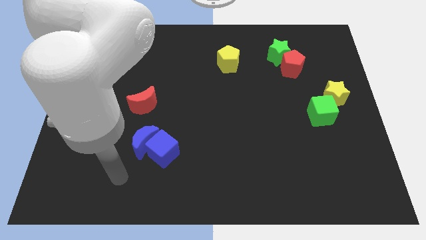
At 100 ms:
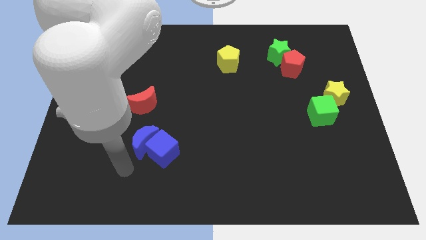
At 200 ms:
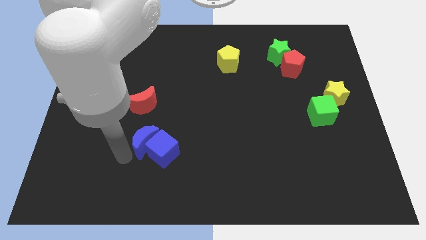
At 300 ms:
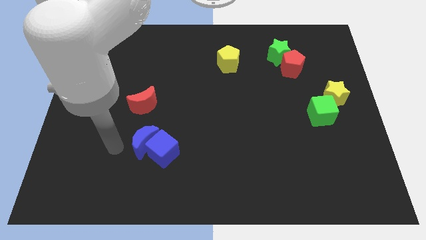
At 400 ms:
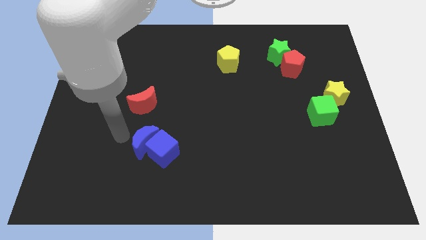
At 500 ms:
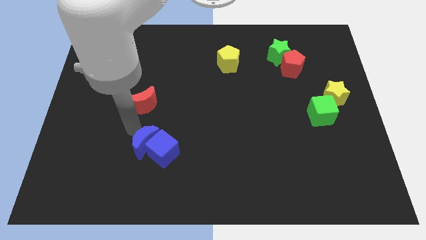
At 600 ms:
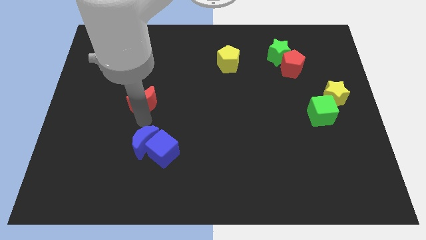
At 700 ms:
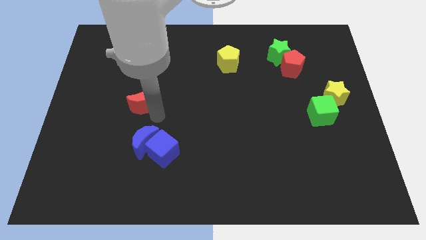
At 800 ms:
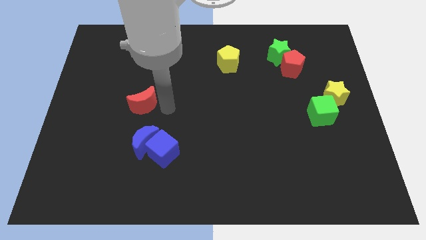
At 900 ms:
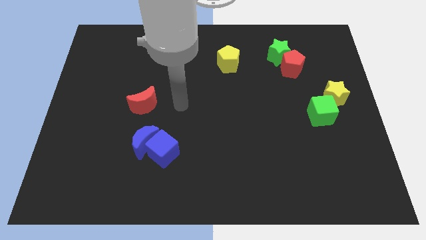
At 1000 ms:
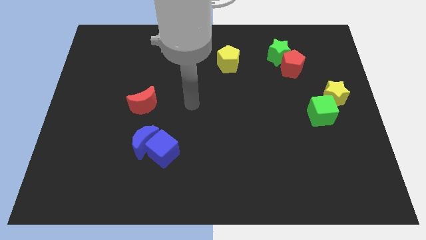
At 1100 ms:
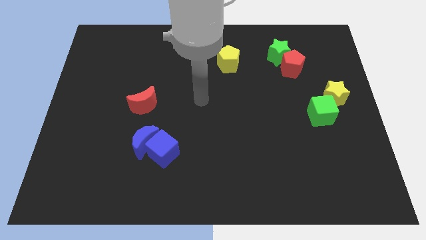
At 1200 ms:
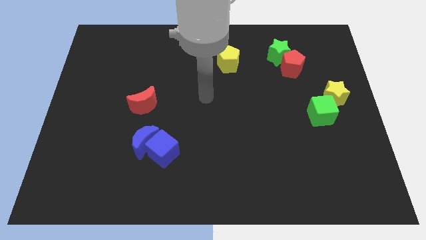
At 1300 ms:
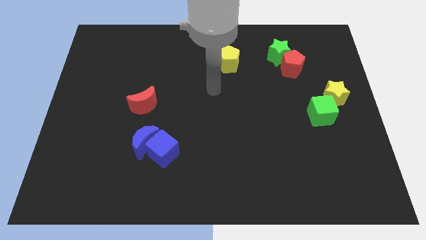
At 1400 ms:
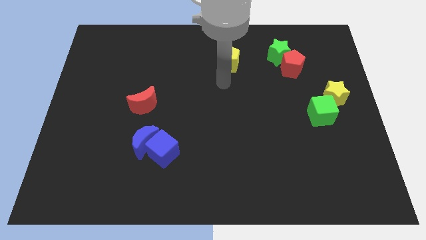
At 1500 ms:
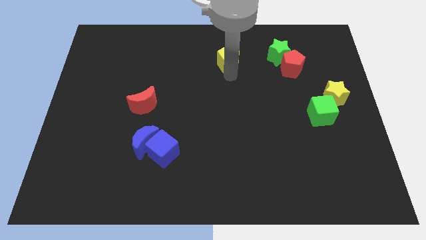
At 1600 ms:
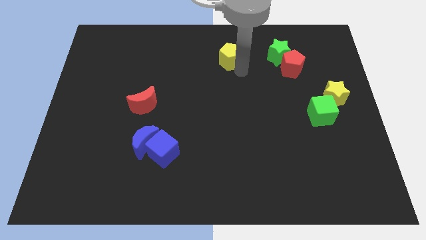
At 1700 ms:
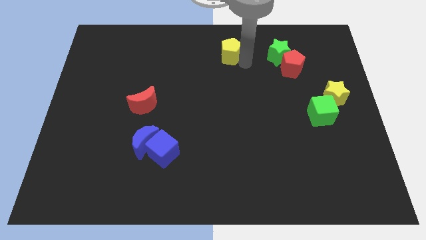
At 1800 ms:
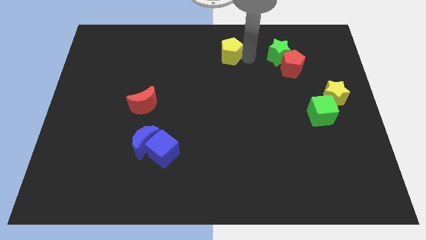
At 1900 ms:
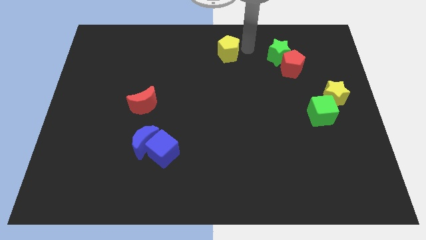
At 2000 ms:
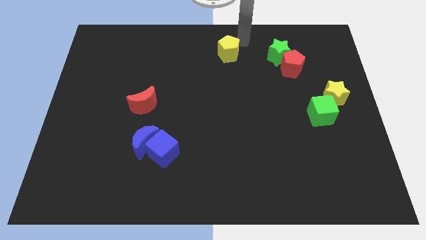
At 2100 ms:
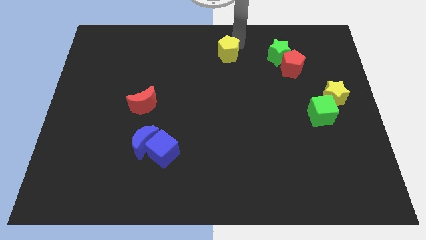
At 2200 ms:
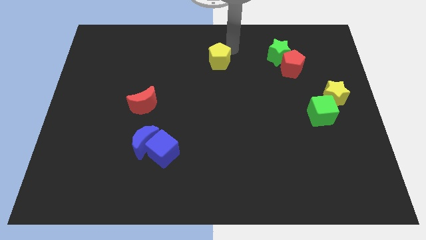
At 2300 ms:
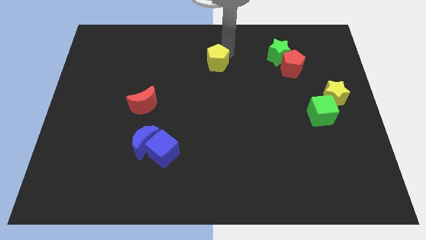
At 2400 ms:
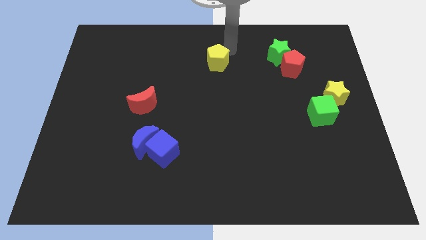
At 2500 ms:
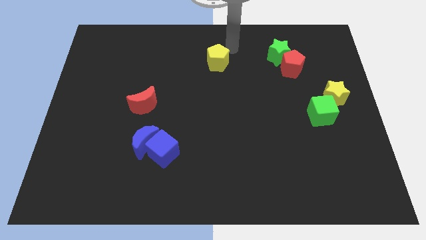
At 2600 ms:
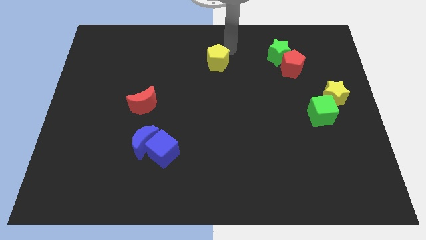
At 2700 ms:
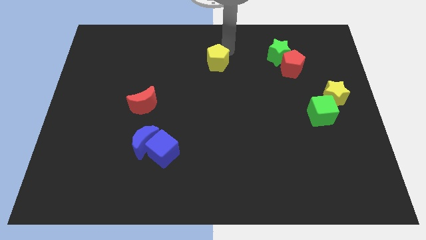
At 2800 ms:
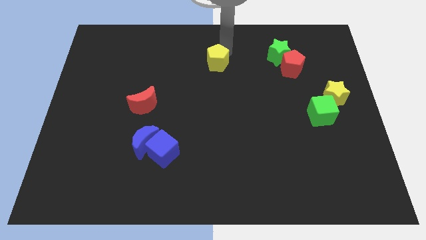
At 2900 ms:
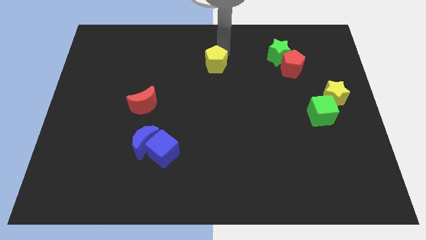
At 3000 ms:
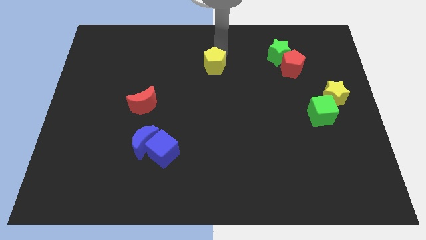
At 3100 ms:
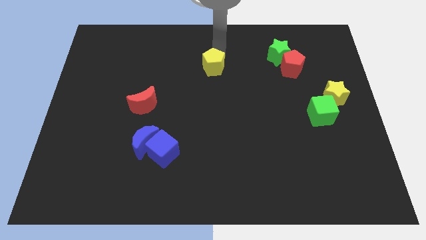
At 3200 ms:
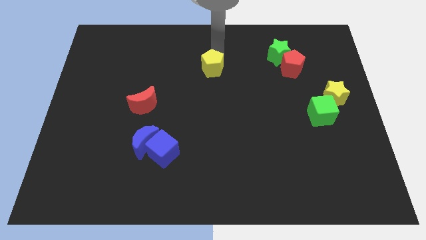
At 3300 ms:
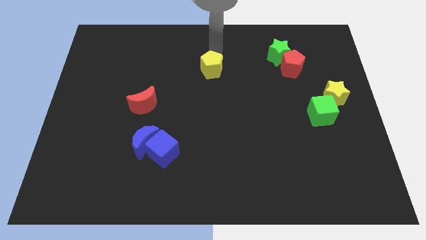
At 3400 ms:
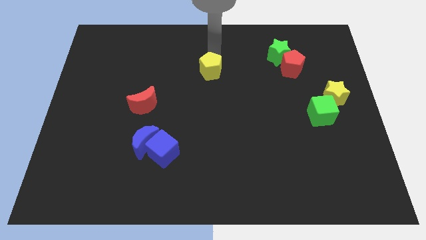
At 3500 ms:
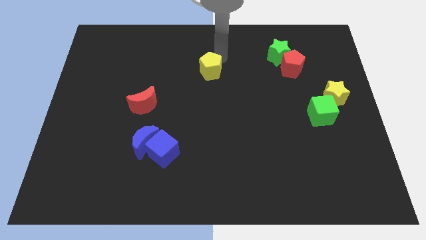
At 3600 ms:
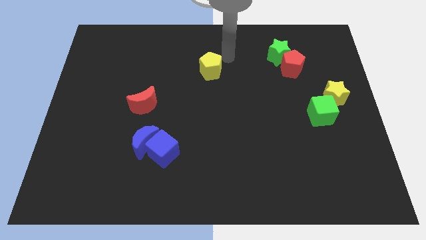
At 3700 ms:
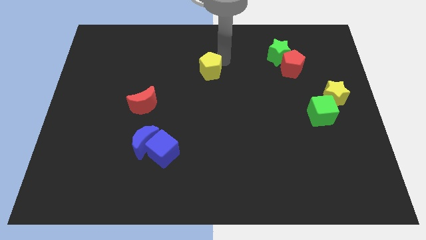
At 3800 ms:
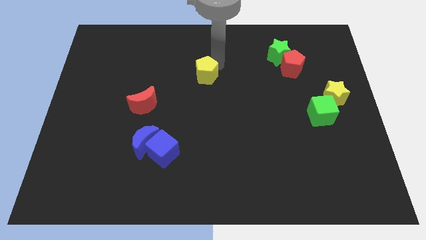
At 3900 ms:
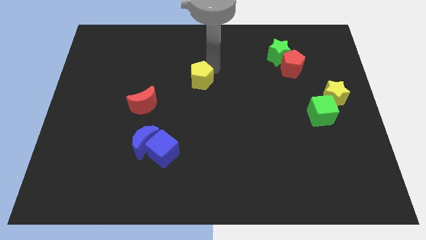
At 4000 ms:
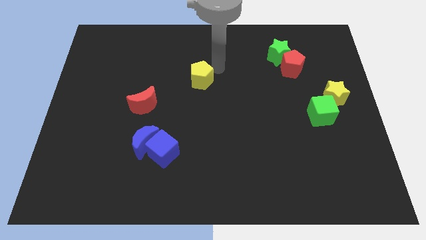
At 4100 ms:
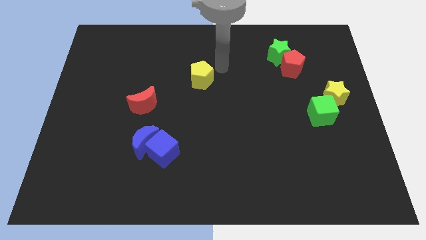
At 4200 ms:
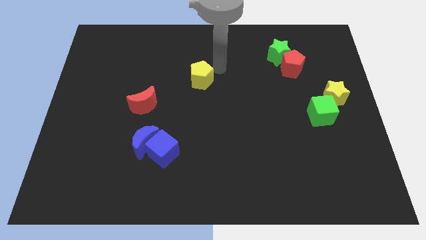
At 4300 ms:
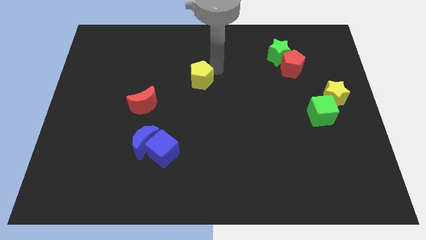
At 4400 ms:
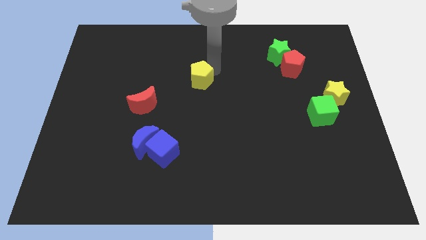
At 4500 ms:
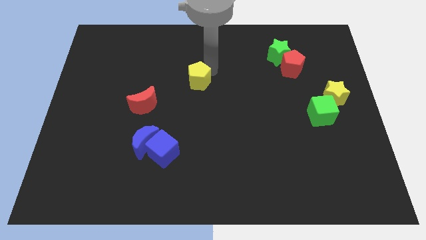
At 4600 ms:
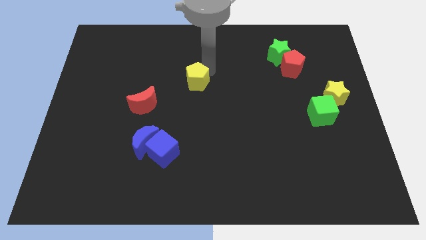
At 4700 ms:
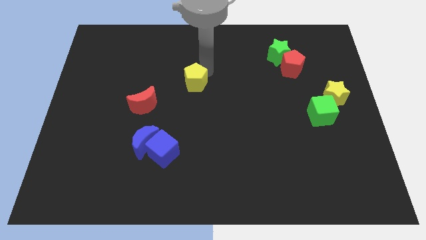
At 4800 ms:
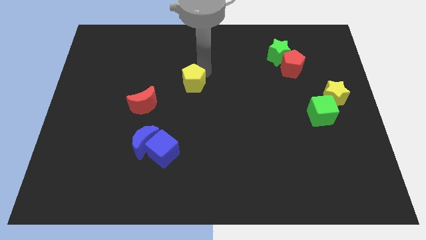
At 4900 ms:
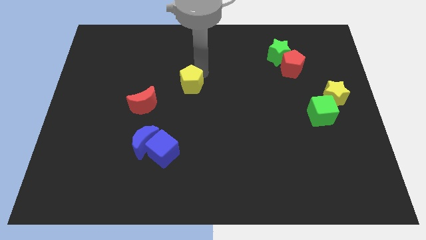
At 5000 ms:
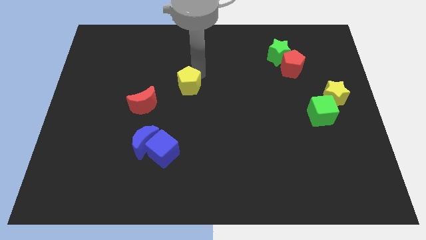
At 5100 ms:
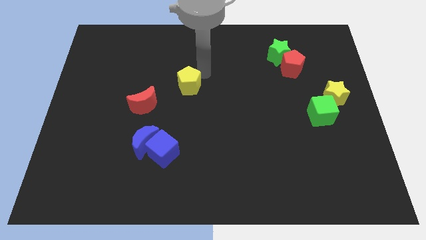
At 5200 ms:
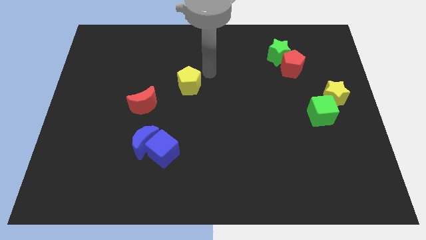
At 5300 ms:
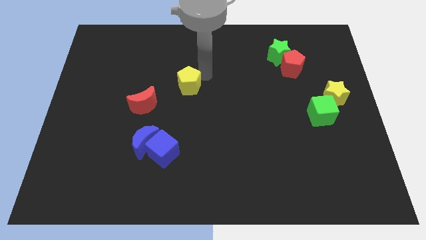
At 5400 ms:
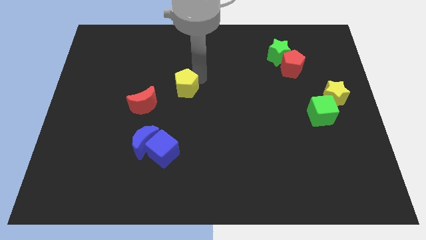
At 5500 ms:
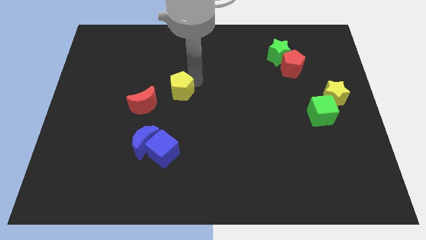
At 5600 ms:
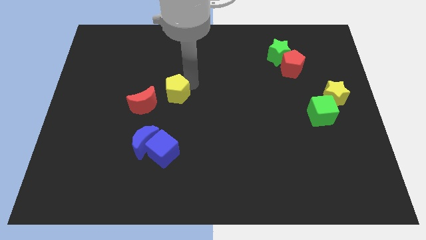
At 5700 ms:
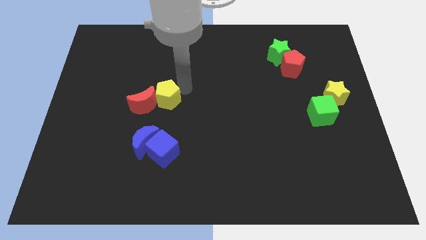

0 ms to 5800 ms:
put the yellow pentagon towards the red moon

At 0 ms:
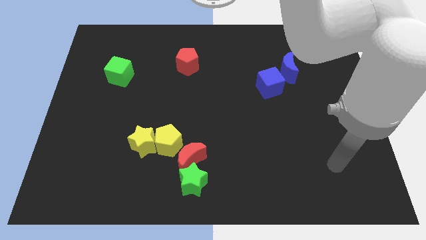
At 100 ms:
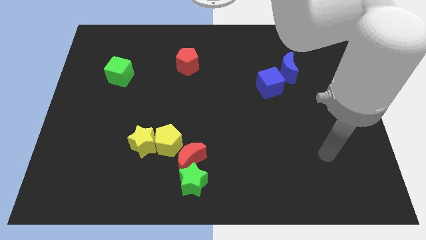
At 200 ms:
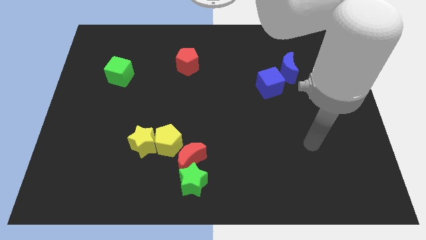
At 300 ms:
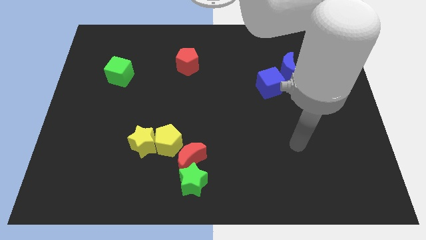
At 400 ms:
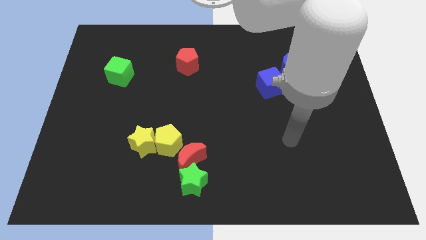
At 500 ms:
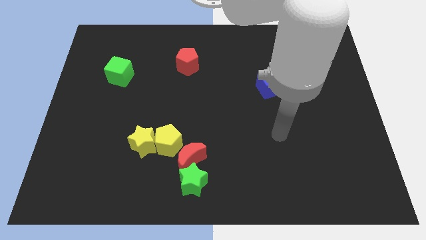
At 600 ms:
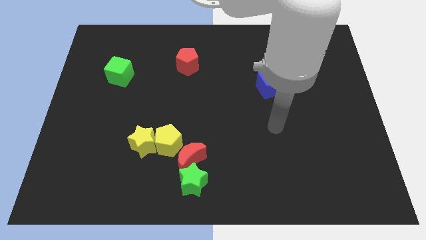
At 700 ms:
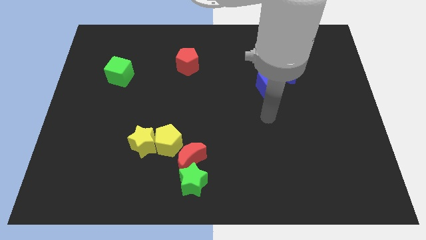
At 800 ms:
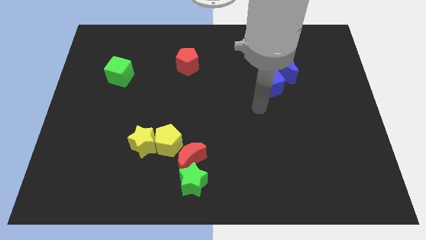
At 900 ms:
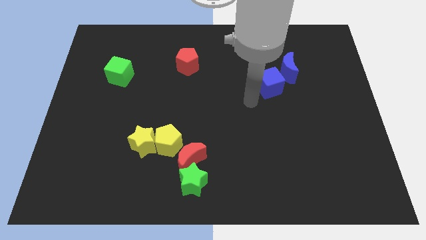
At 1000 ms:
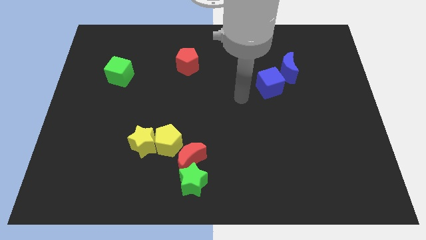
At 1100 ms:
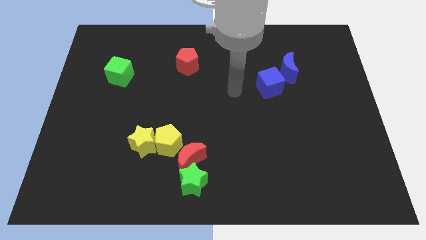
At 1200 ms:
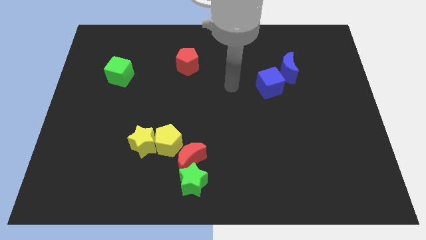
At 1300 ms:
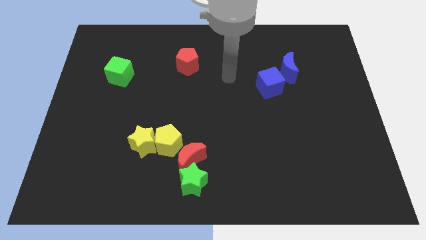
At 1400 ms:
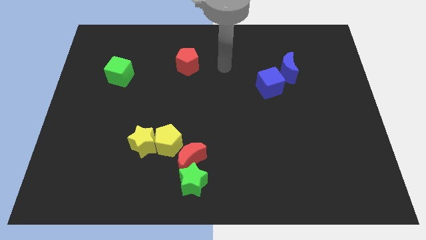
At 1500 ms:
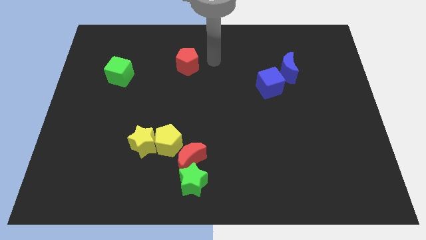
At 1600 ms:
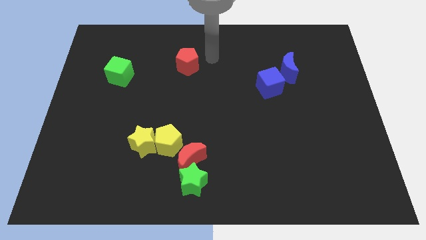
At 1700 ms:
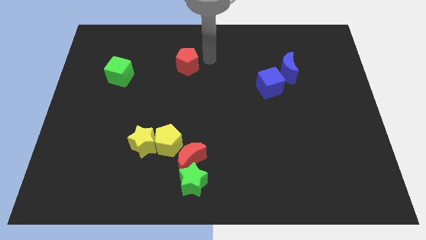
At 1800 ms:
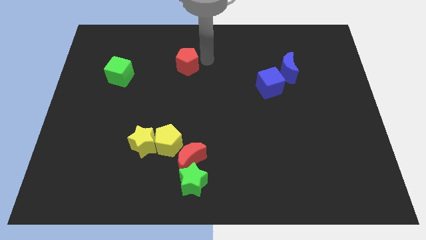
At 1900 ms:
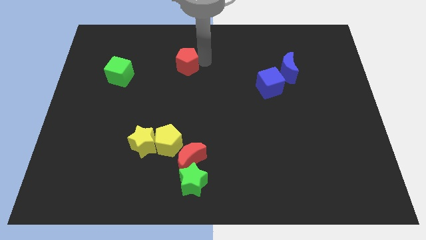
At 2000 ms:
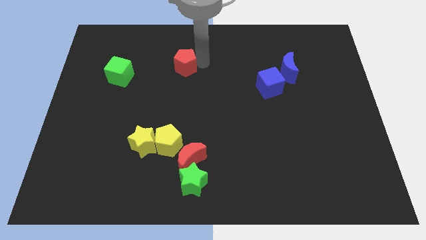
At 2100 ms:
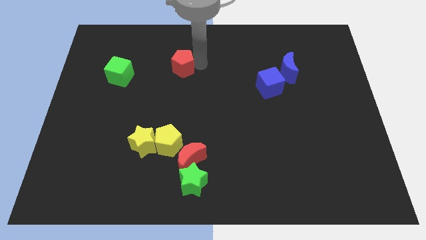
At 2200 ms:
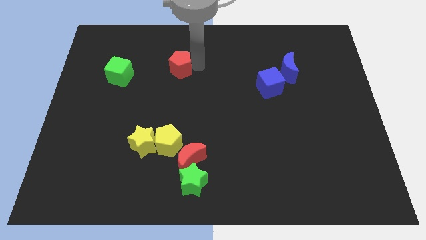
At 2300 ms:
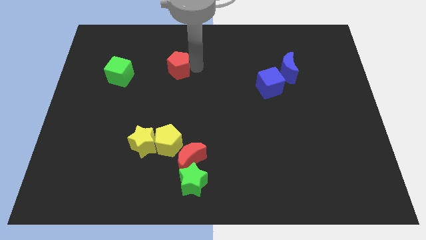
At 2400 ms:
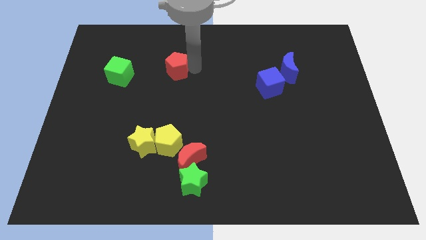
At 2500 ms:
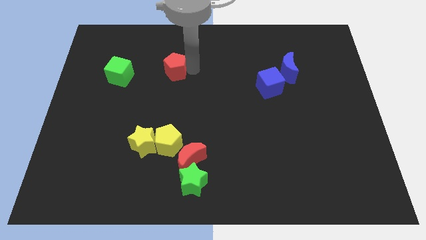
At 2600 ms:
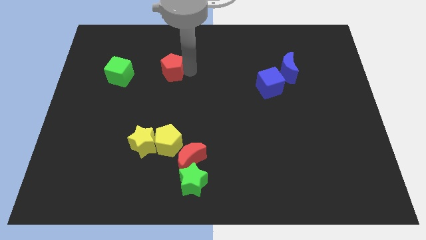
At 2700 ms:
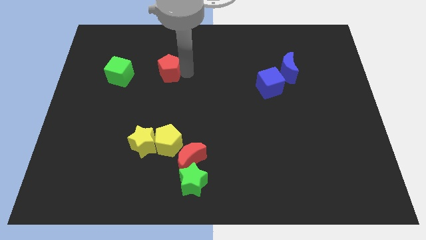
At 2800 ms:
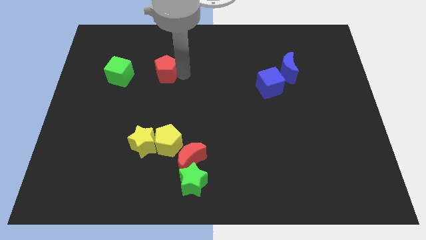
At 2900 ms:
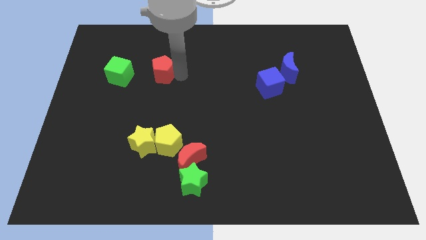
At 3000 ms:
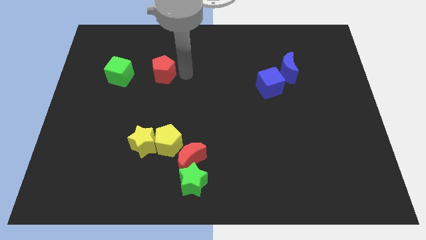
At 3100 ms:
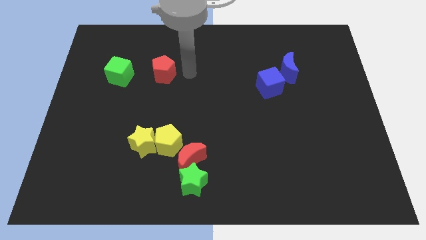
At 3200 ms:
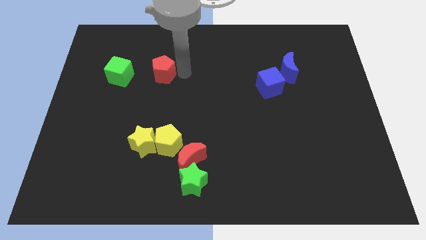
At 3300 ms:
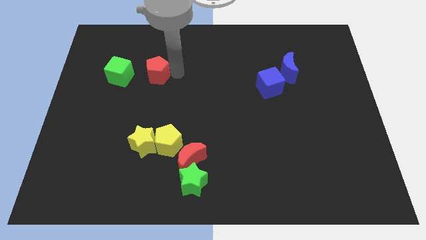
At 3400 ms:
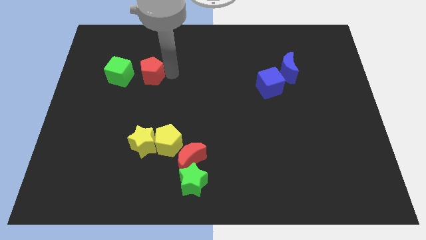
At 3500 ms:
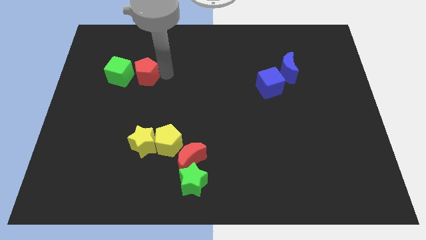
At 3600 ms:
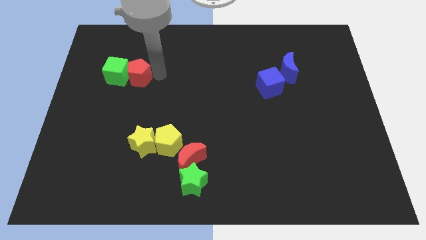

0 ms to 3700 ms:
slide the red pentagon close to the green cube
